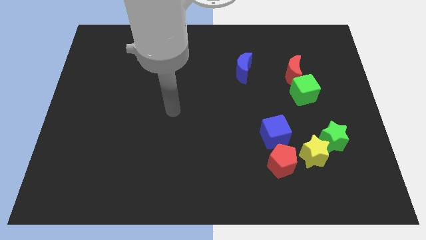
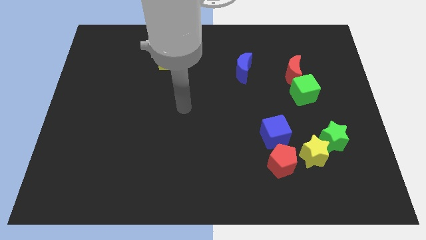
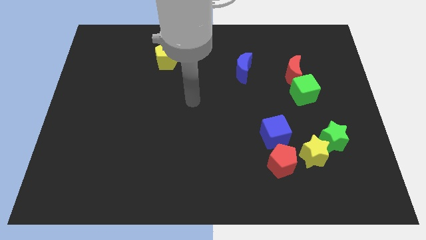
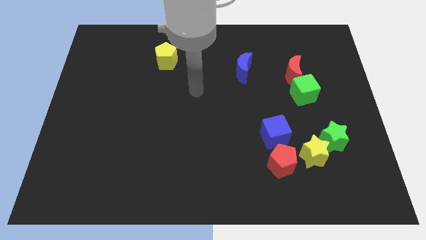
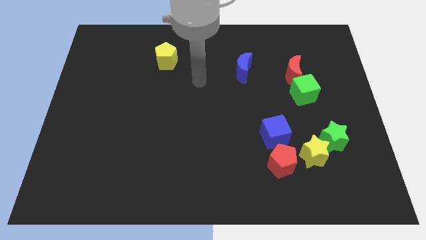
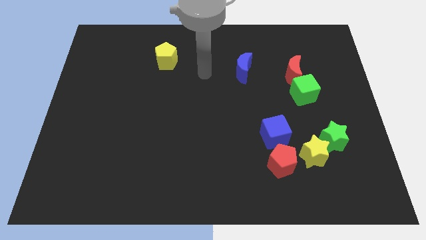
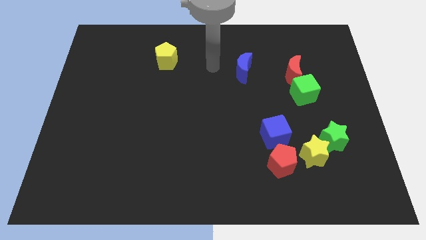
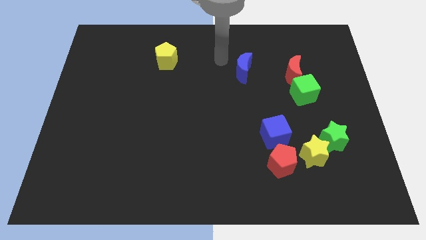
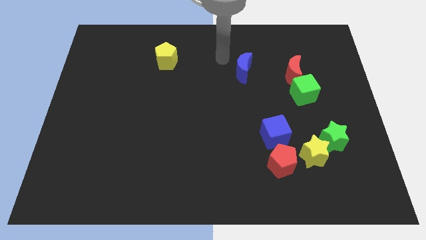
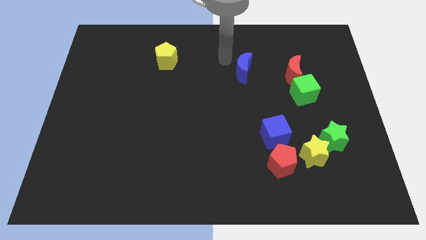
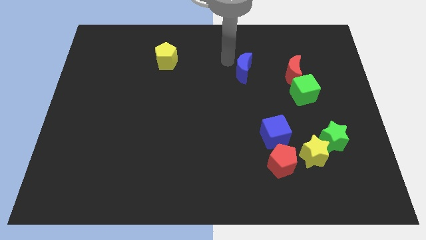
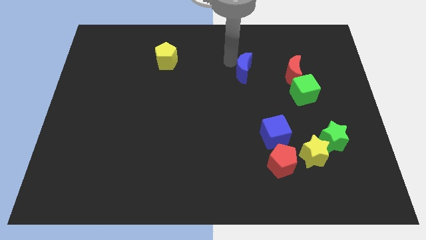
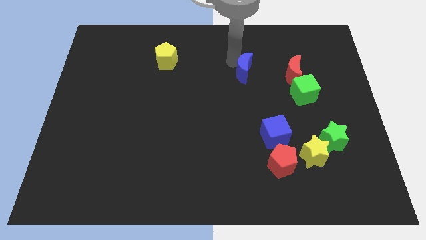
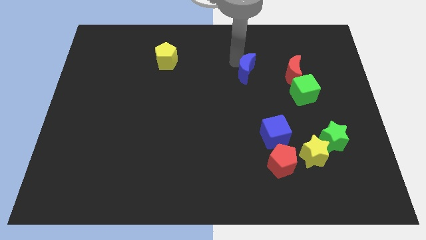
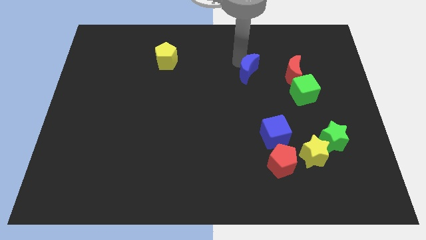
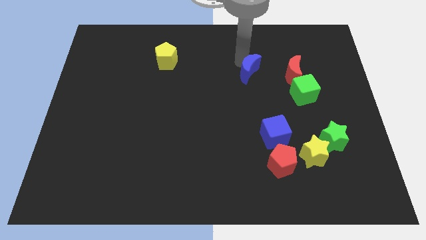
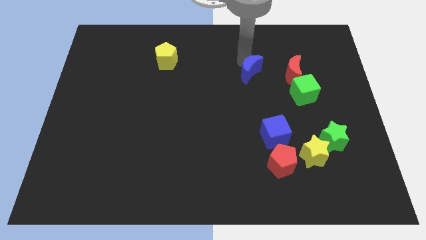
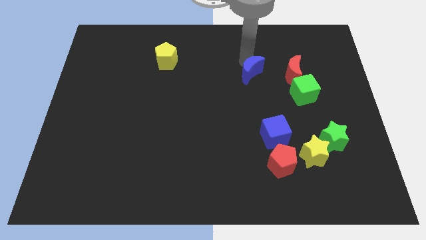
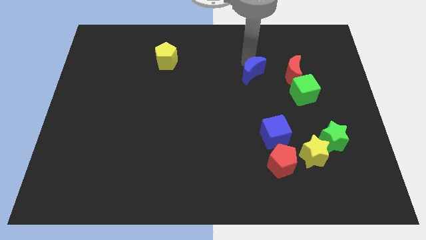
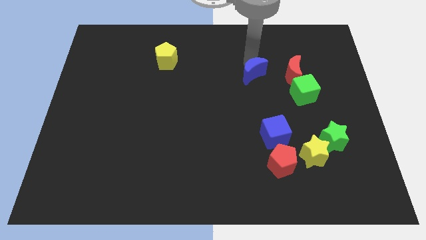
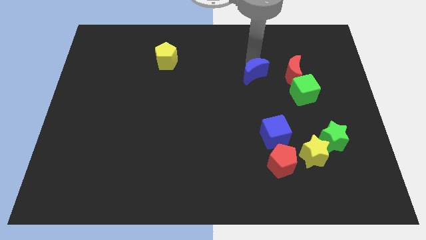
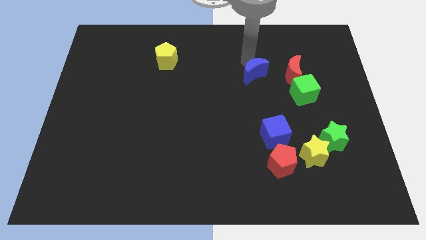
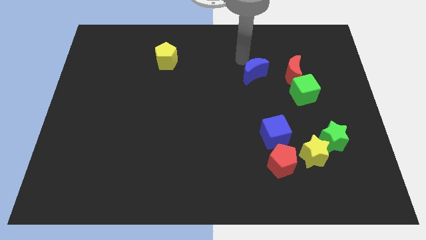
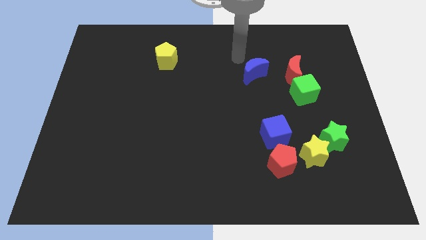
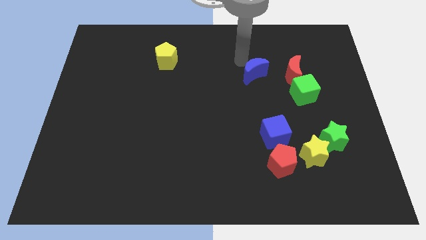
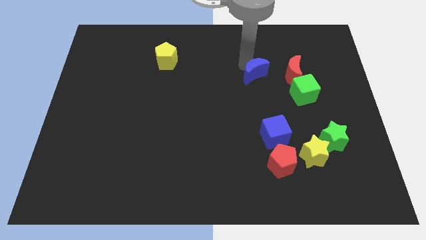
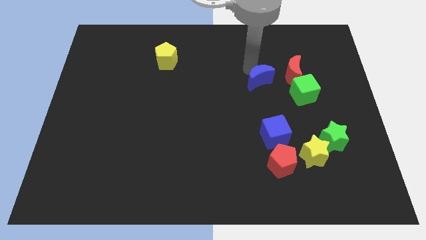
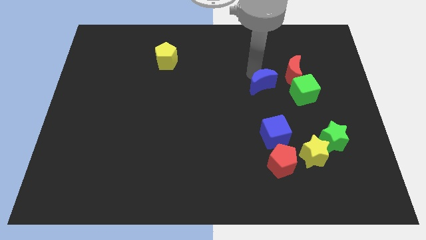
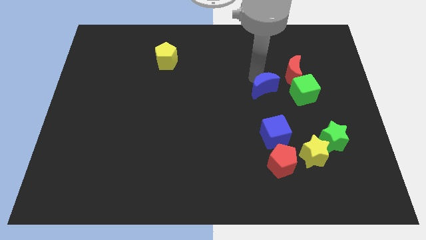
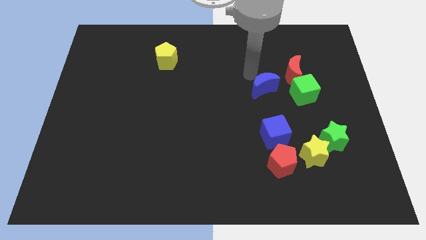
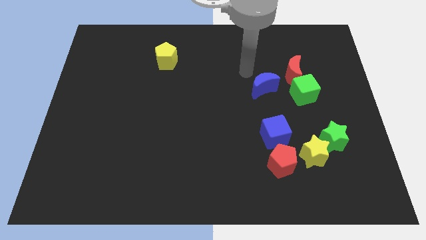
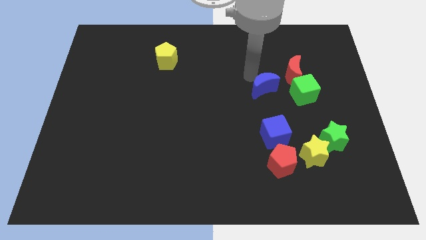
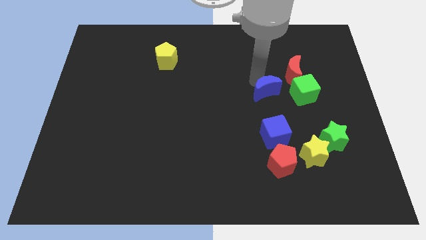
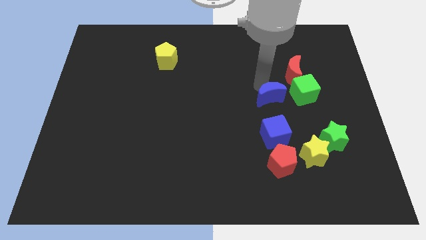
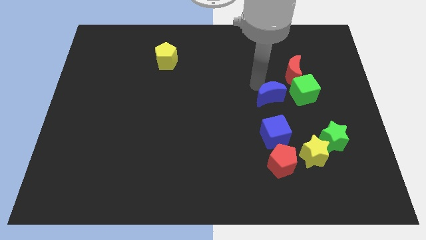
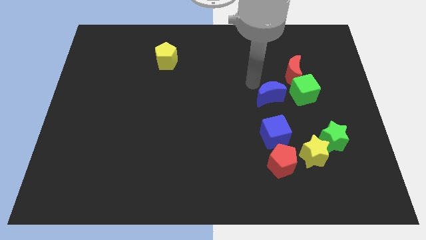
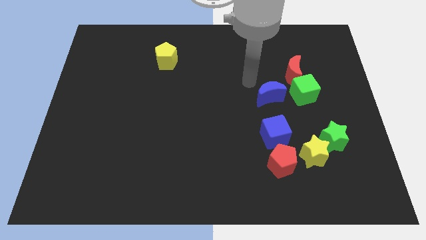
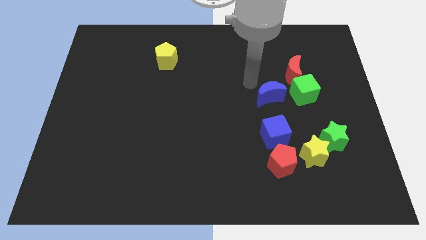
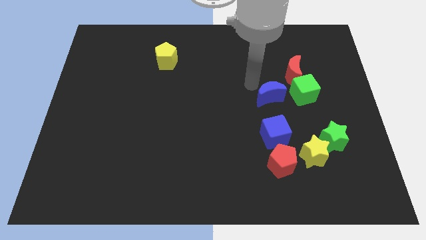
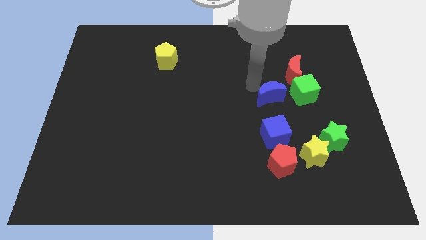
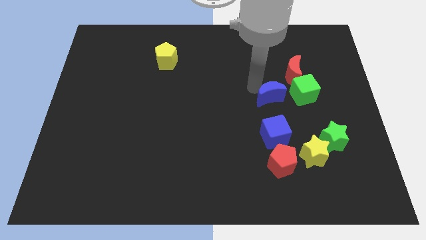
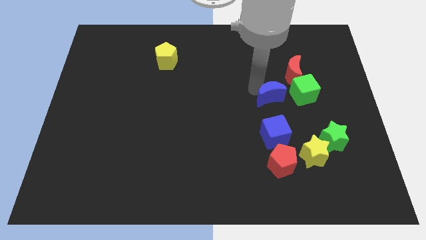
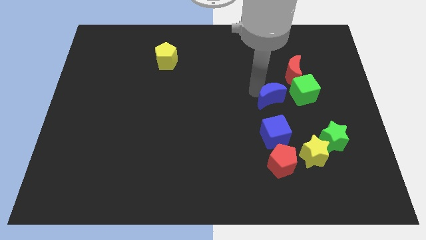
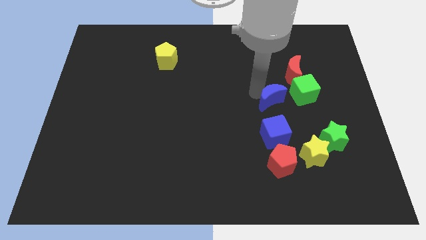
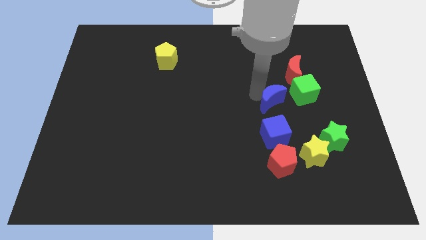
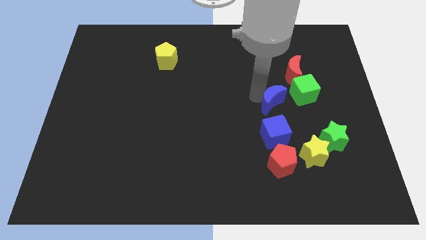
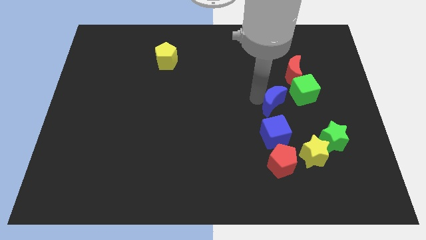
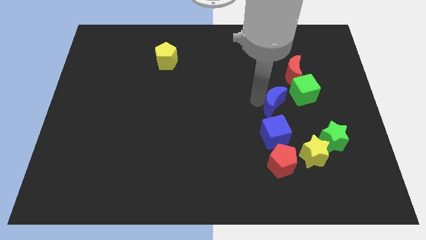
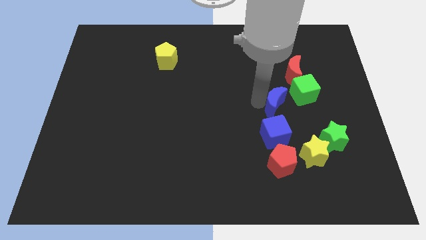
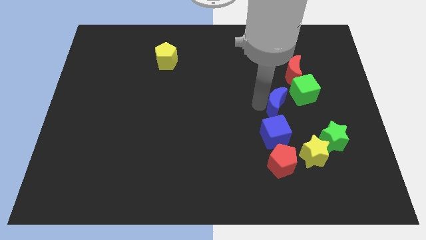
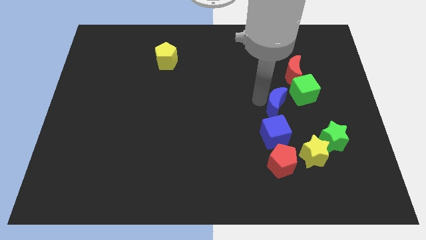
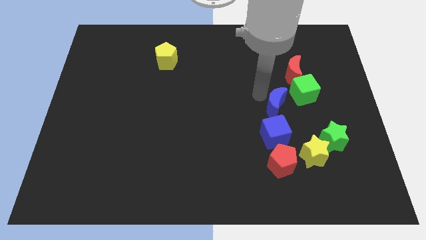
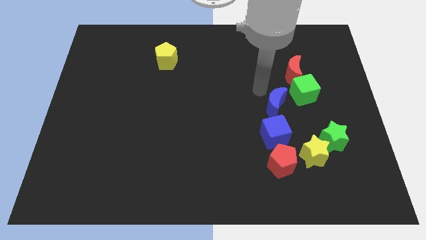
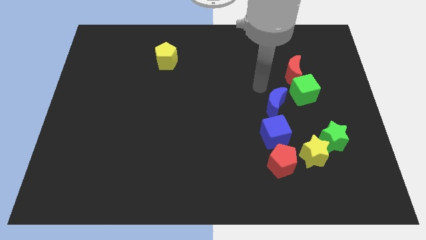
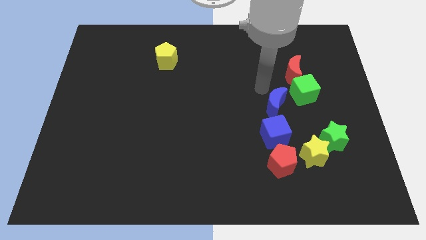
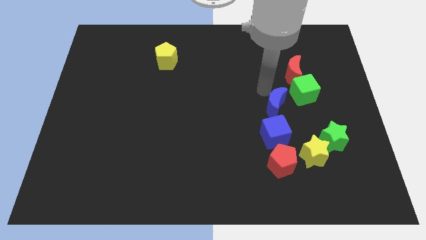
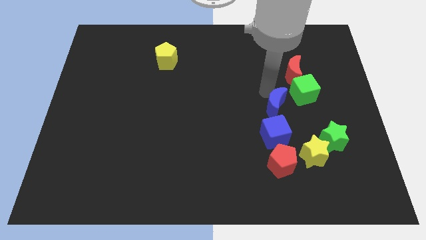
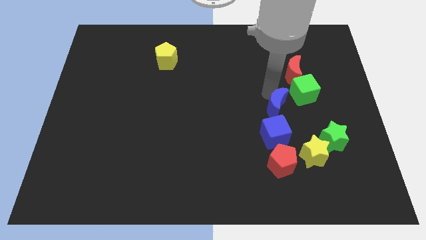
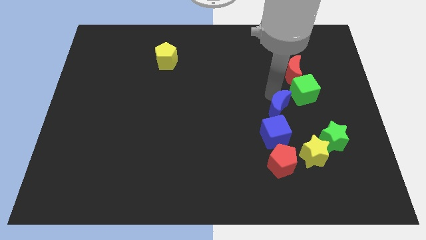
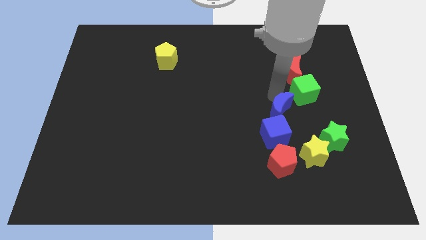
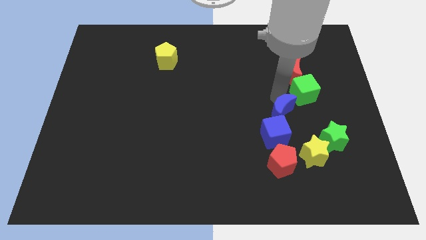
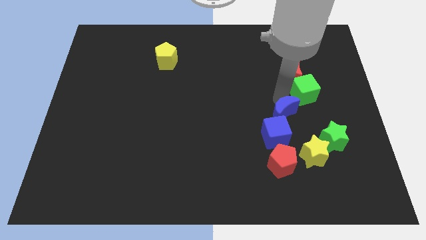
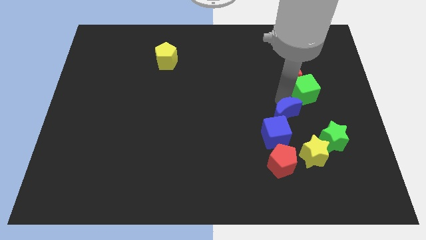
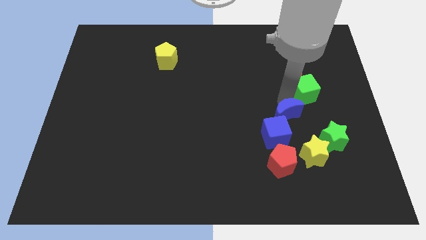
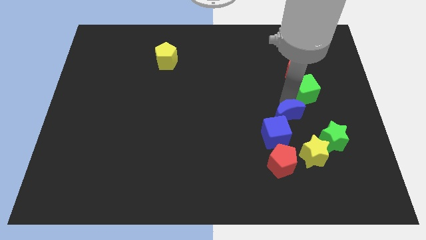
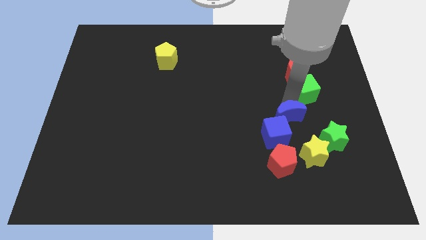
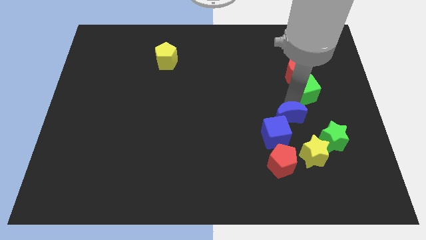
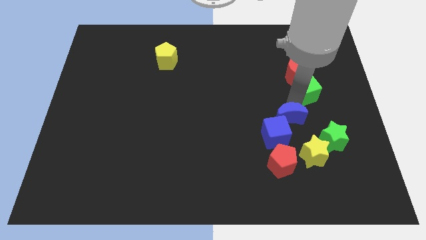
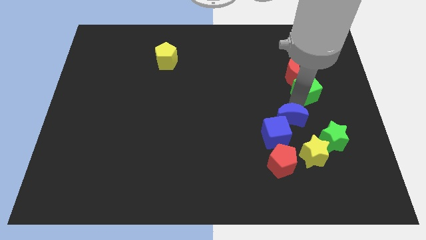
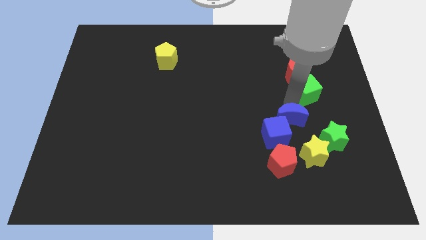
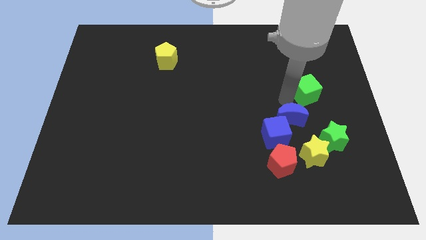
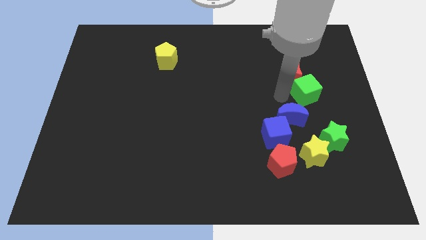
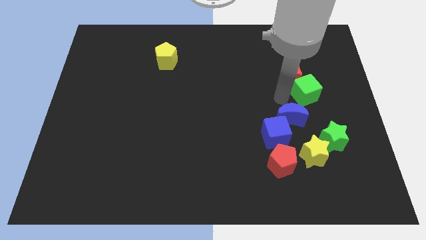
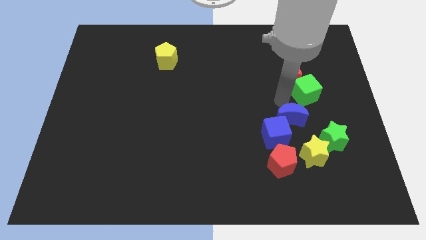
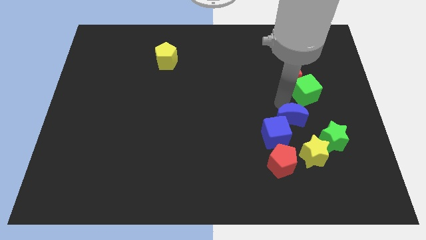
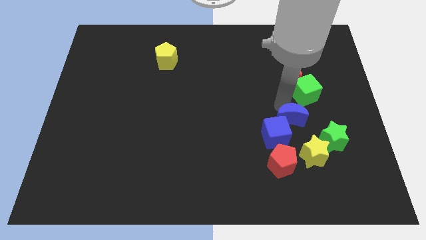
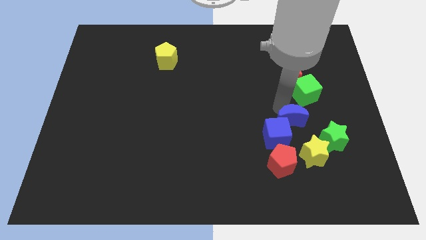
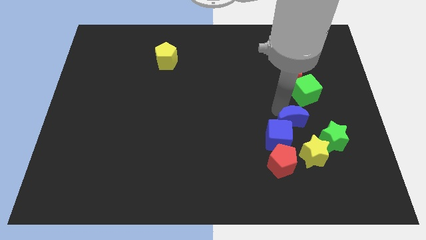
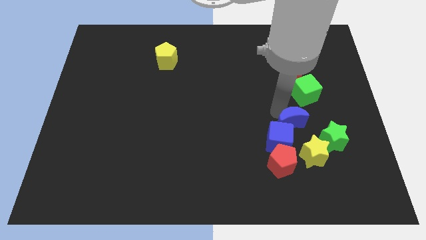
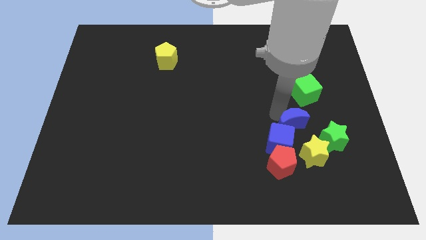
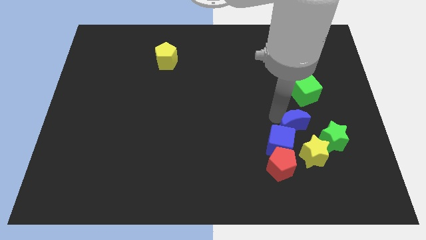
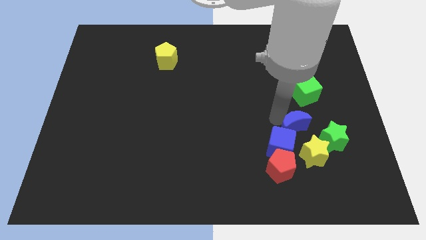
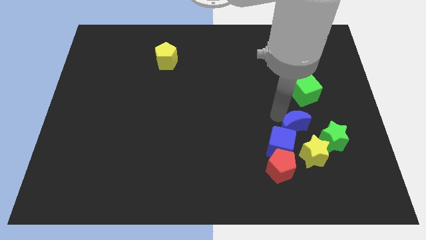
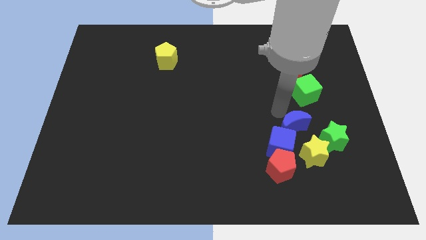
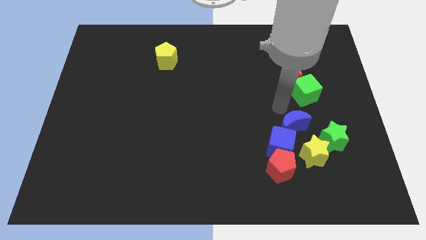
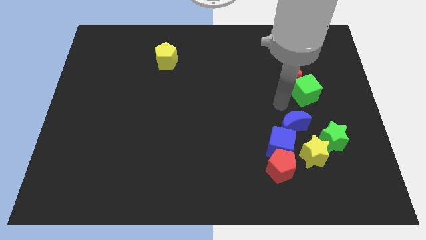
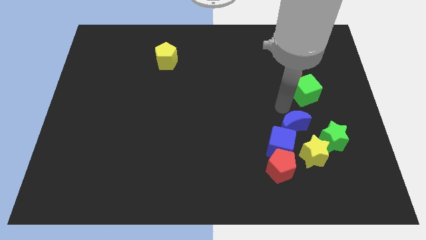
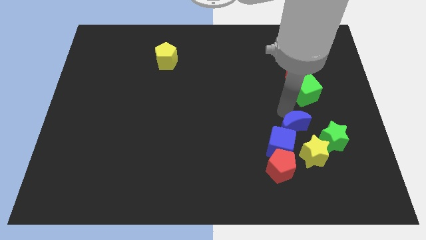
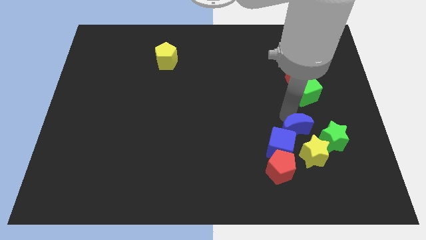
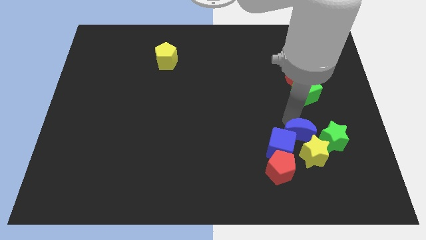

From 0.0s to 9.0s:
move the blue moon to the yellow star
